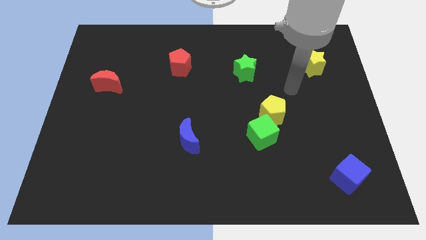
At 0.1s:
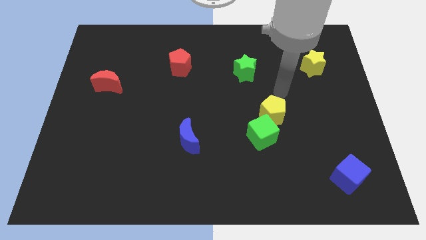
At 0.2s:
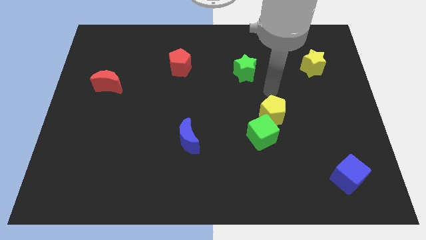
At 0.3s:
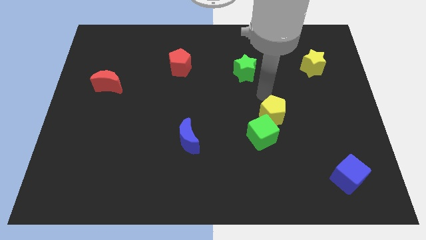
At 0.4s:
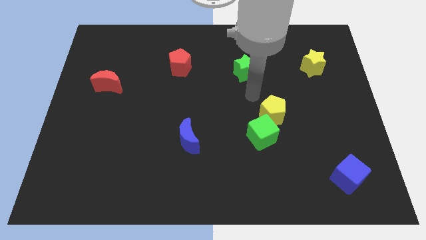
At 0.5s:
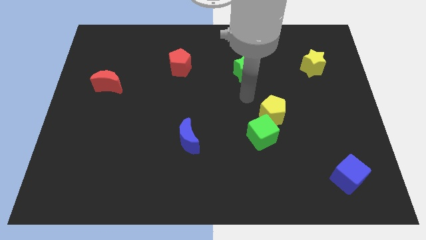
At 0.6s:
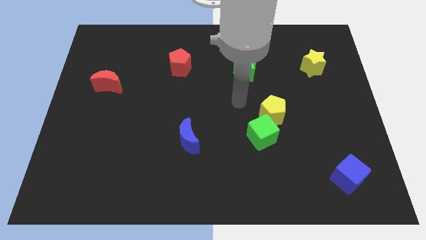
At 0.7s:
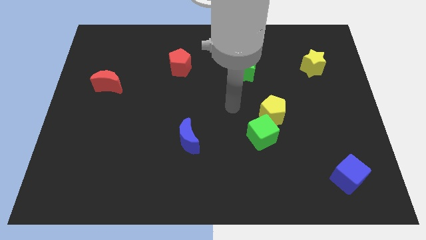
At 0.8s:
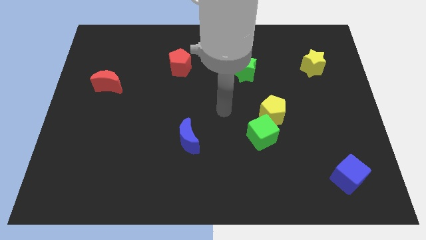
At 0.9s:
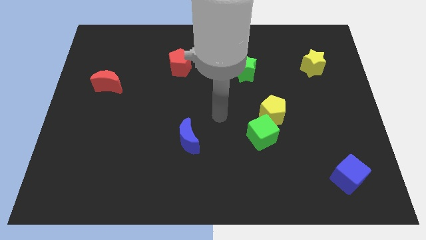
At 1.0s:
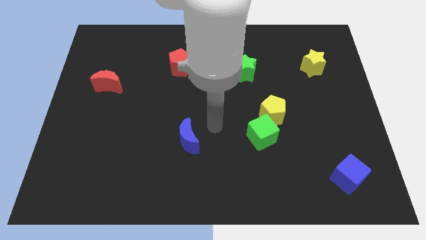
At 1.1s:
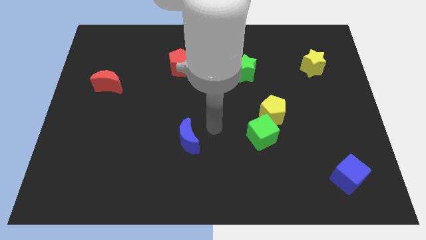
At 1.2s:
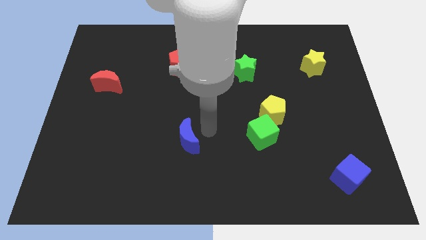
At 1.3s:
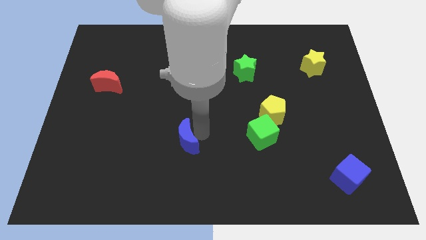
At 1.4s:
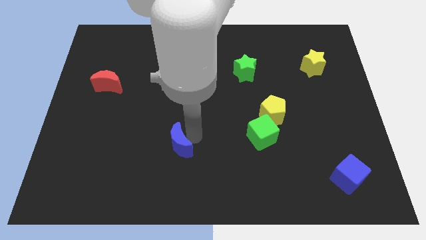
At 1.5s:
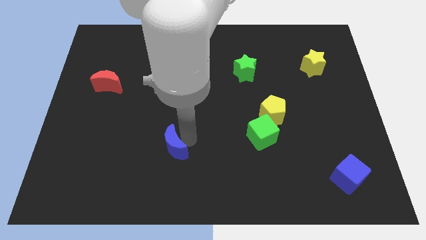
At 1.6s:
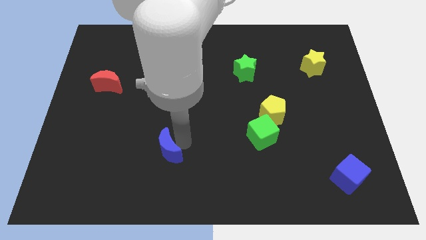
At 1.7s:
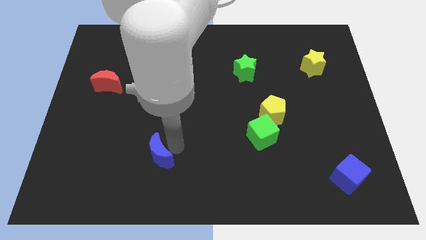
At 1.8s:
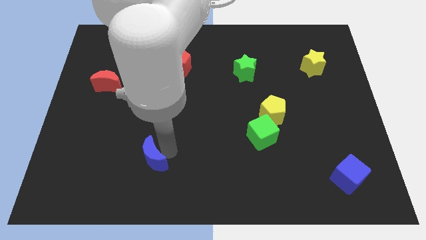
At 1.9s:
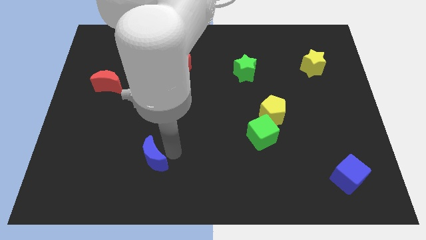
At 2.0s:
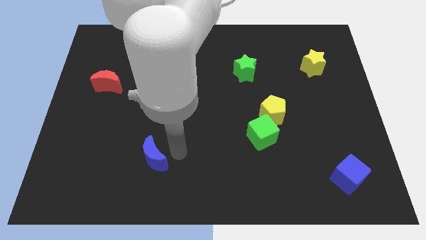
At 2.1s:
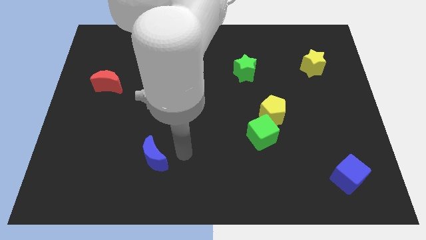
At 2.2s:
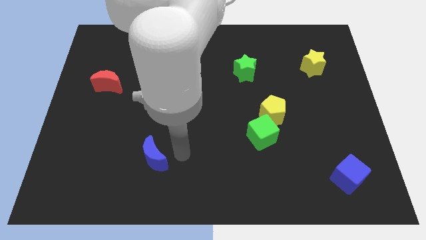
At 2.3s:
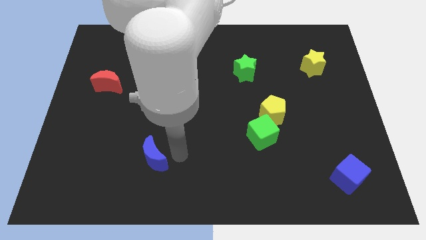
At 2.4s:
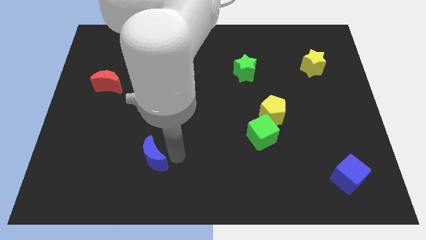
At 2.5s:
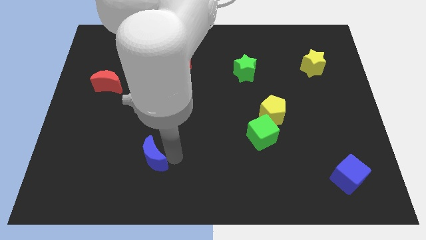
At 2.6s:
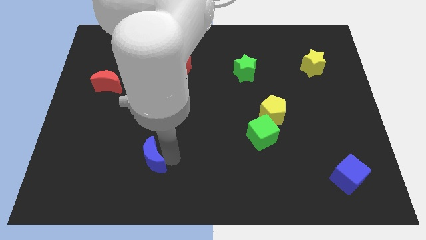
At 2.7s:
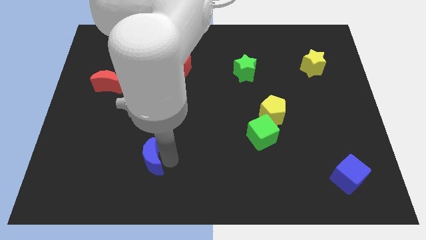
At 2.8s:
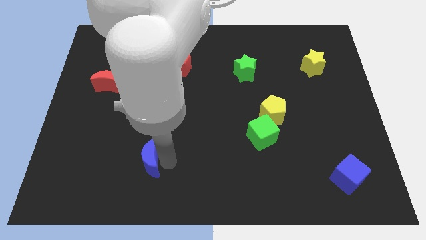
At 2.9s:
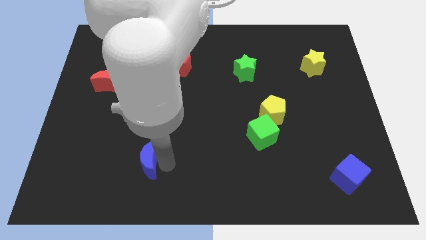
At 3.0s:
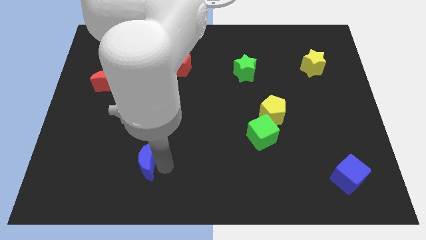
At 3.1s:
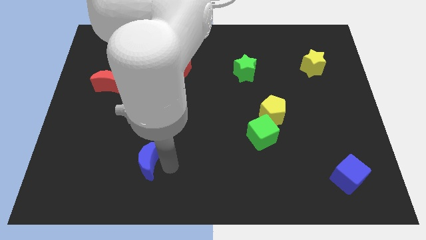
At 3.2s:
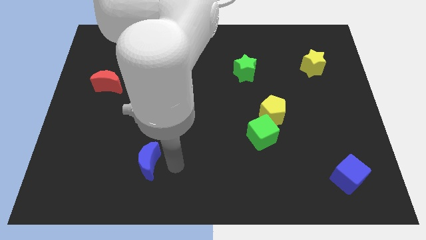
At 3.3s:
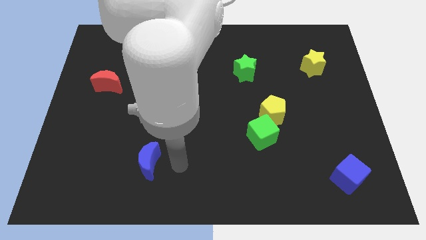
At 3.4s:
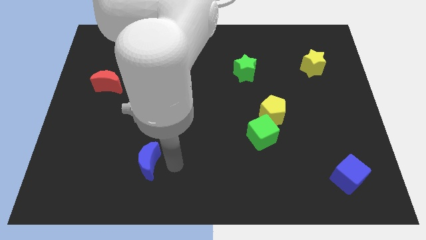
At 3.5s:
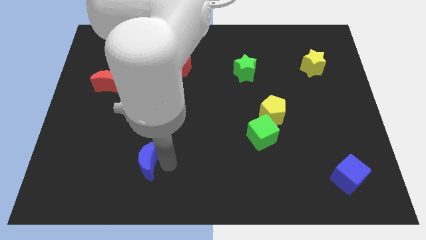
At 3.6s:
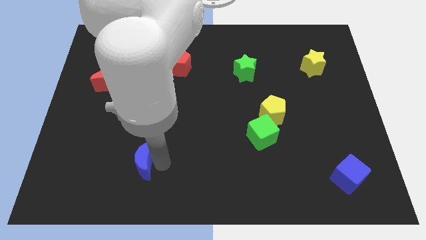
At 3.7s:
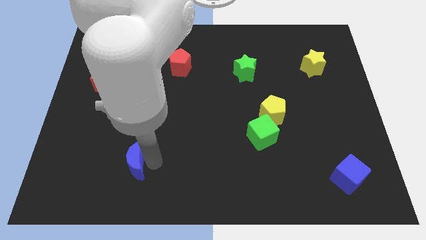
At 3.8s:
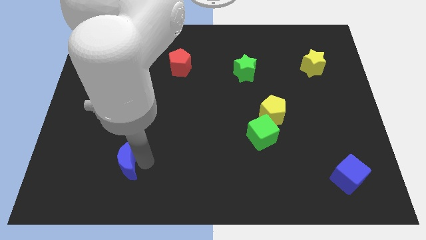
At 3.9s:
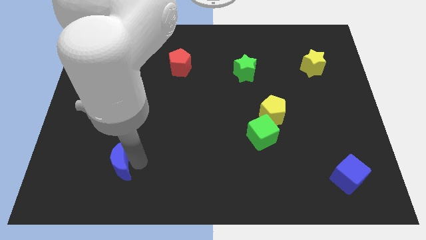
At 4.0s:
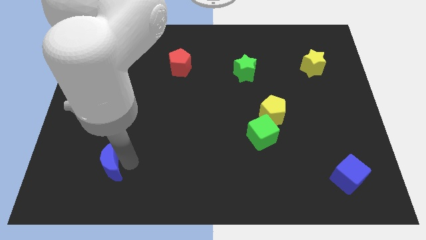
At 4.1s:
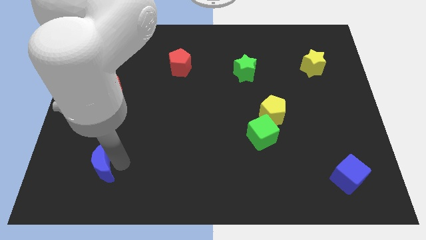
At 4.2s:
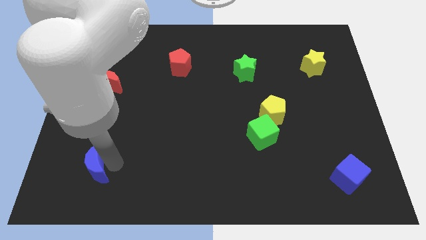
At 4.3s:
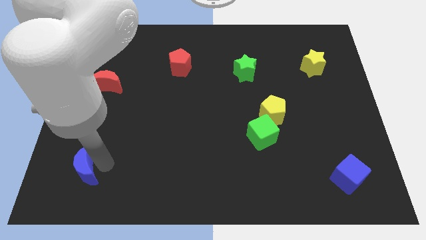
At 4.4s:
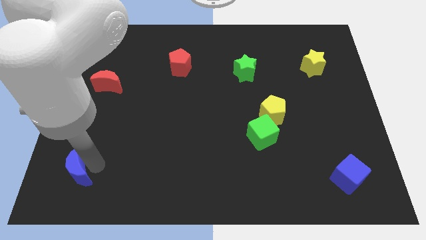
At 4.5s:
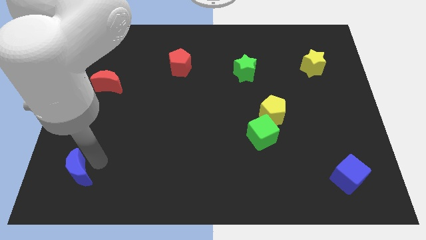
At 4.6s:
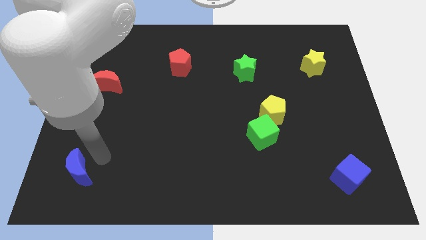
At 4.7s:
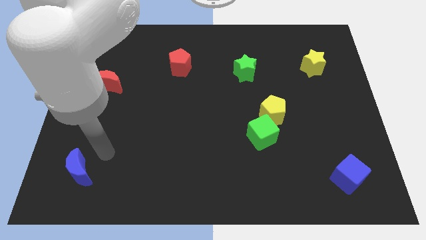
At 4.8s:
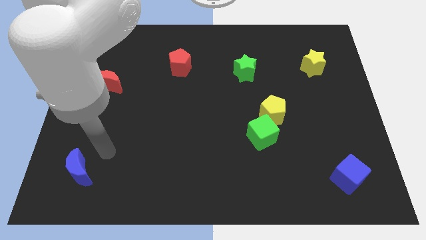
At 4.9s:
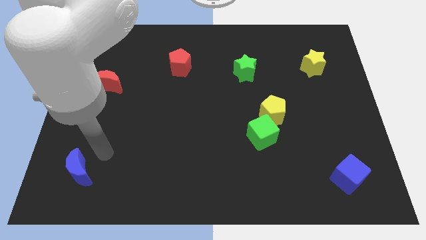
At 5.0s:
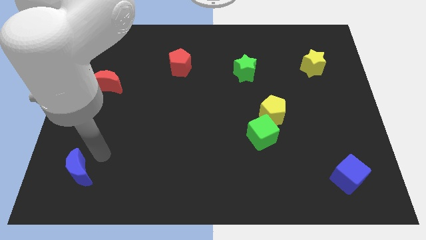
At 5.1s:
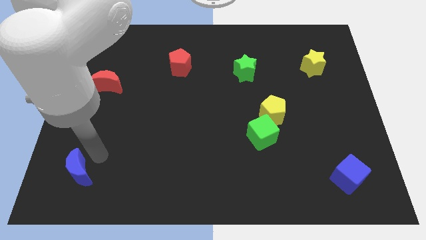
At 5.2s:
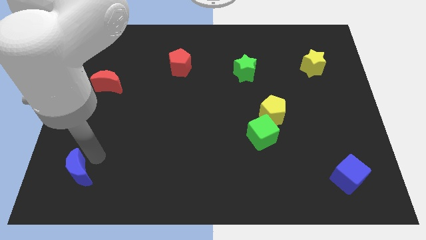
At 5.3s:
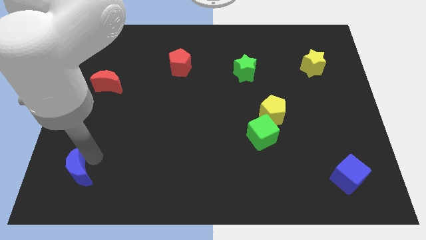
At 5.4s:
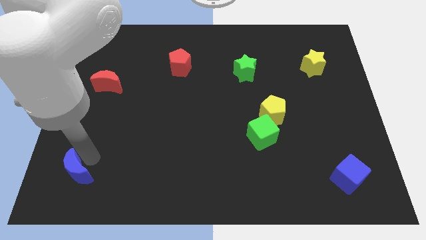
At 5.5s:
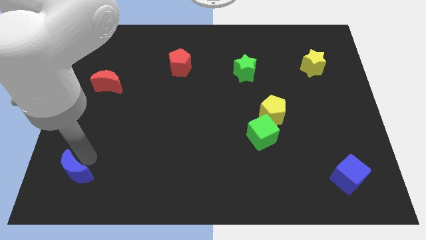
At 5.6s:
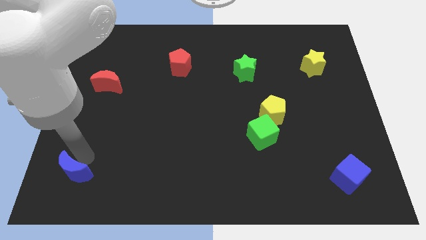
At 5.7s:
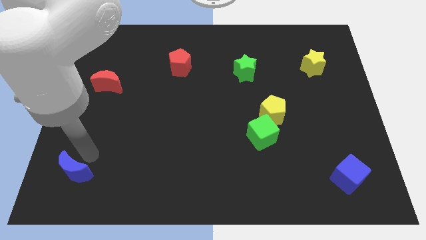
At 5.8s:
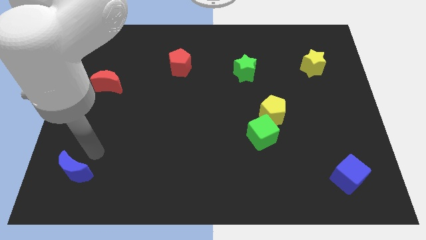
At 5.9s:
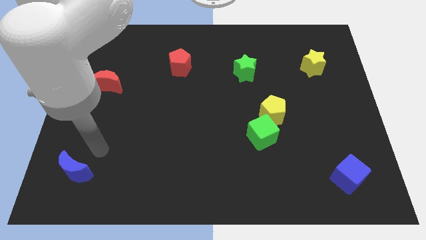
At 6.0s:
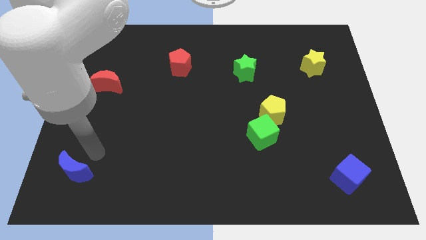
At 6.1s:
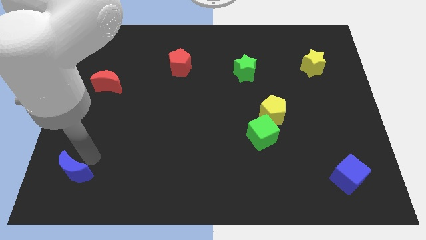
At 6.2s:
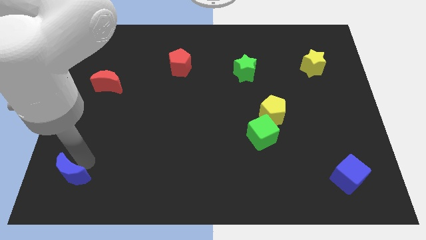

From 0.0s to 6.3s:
push the blue moon to the bottom left

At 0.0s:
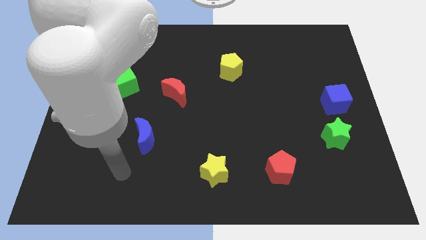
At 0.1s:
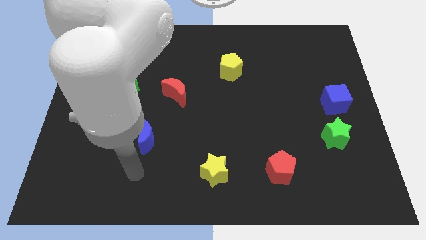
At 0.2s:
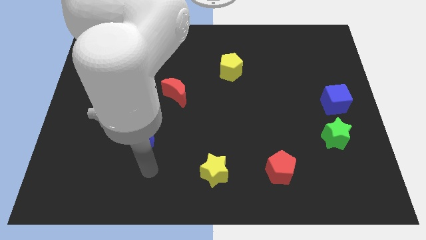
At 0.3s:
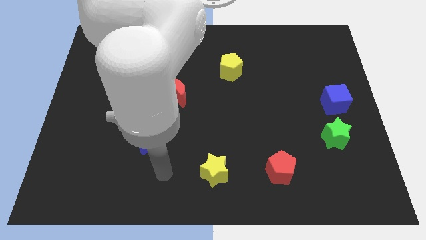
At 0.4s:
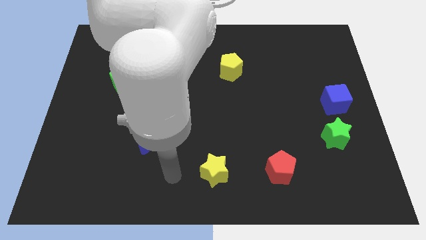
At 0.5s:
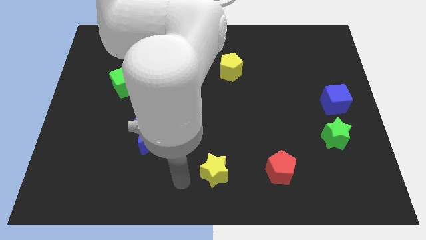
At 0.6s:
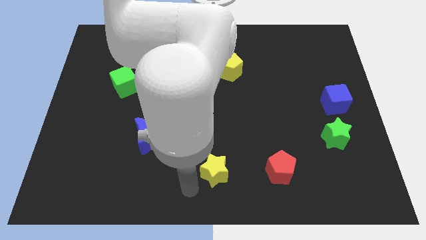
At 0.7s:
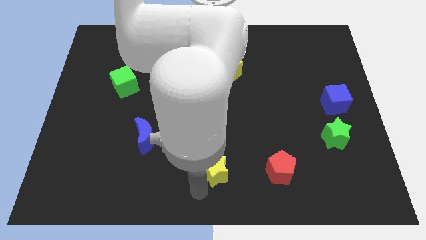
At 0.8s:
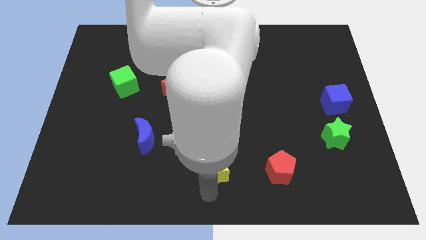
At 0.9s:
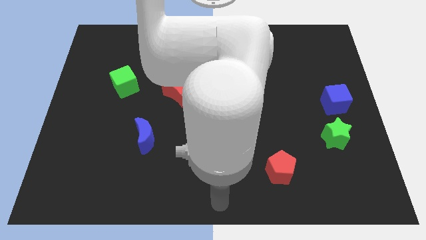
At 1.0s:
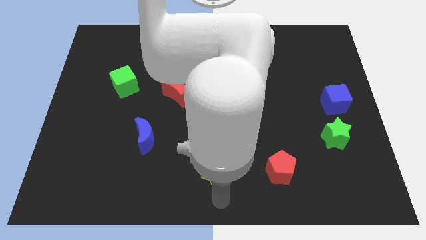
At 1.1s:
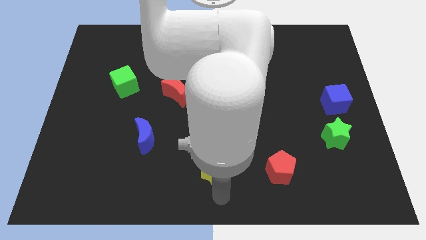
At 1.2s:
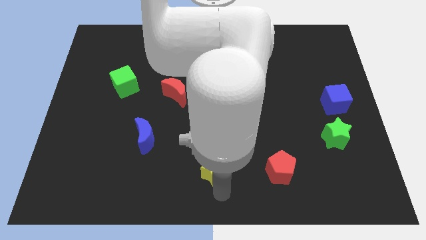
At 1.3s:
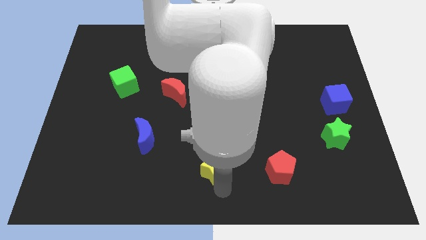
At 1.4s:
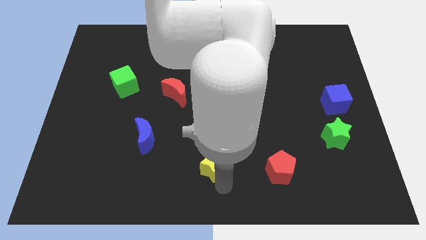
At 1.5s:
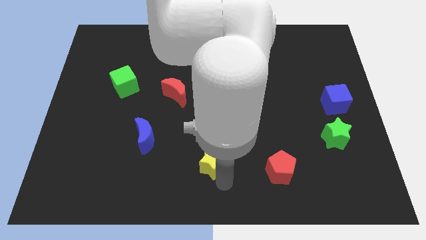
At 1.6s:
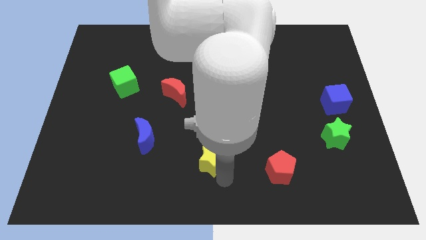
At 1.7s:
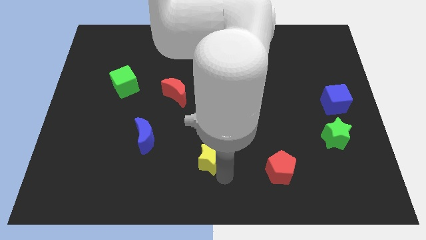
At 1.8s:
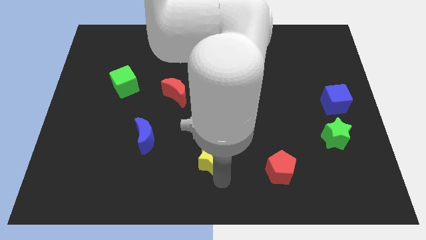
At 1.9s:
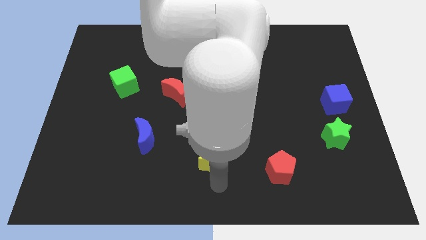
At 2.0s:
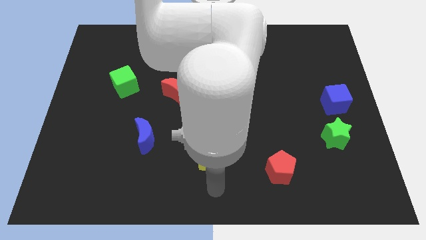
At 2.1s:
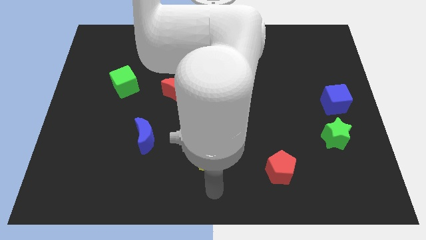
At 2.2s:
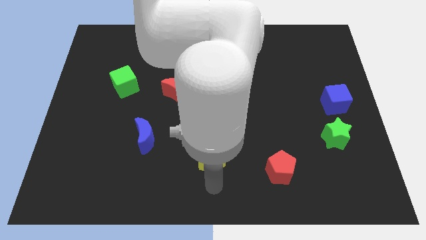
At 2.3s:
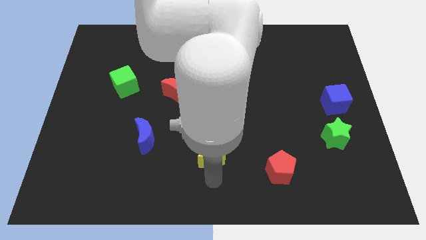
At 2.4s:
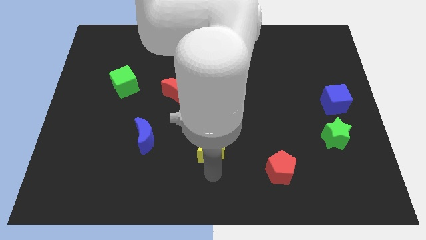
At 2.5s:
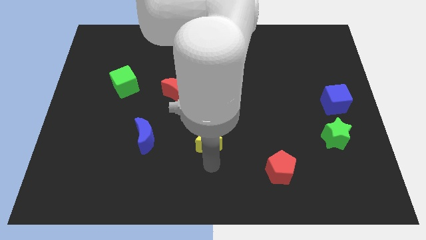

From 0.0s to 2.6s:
put the yellow star to the middle of the board
